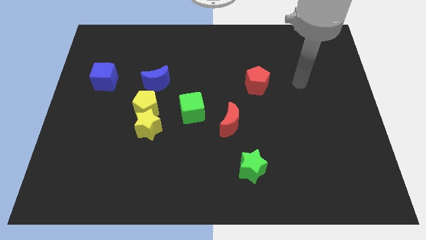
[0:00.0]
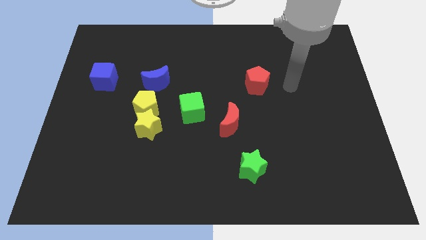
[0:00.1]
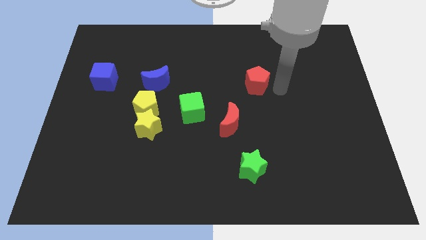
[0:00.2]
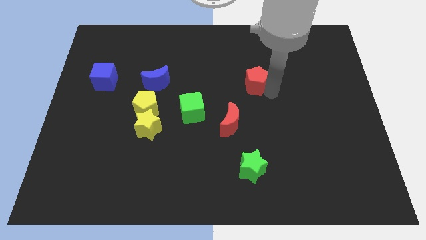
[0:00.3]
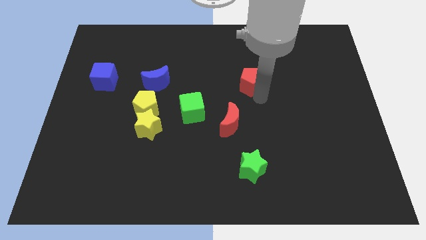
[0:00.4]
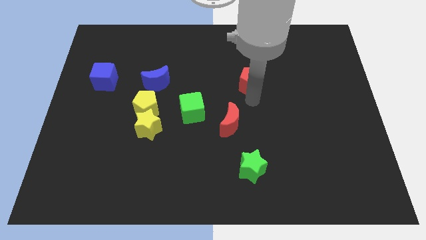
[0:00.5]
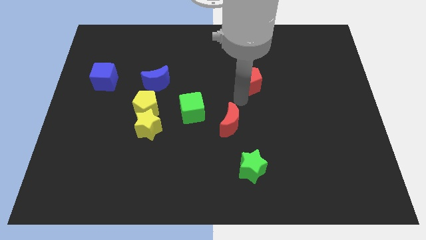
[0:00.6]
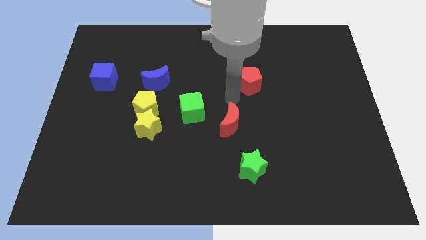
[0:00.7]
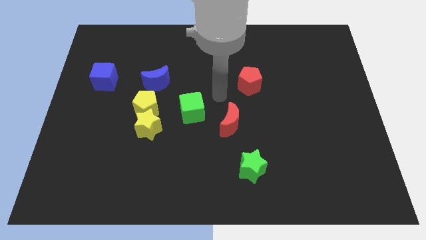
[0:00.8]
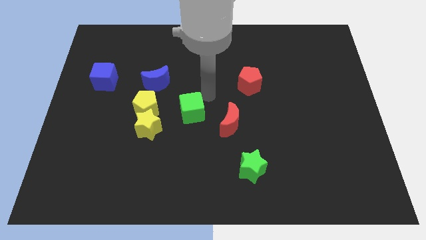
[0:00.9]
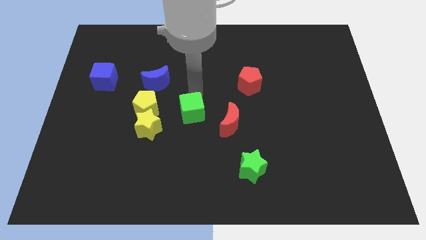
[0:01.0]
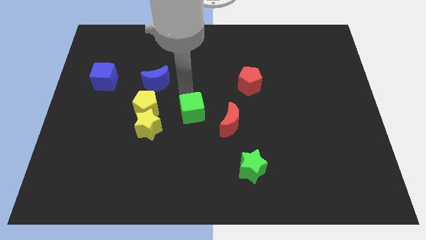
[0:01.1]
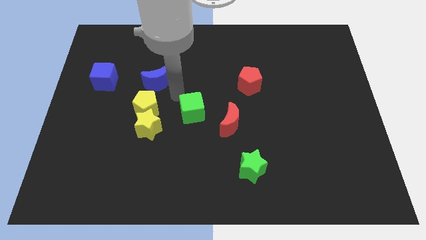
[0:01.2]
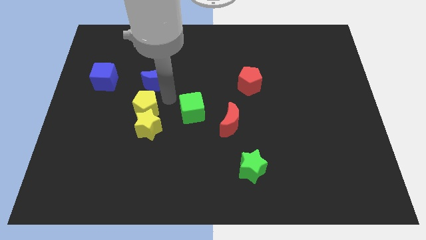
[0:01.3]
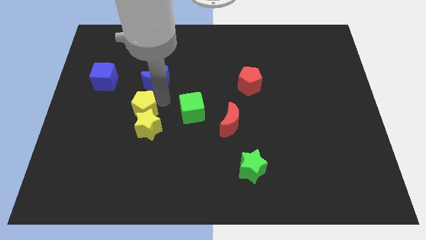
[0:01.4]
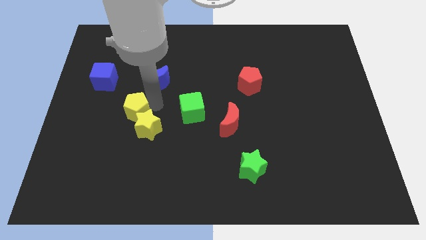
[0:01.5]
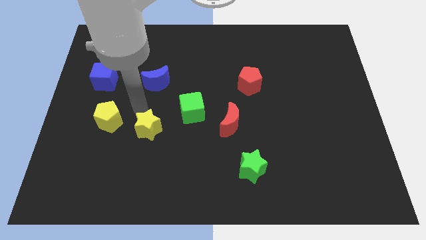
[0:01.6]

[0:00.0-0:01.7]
pull the yellow star apart from the yellow pentagon

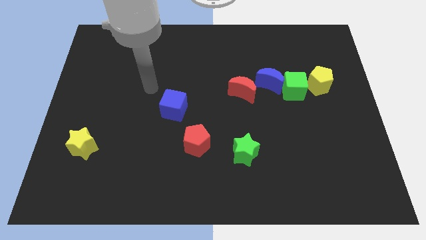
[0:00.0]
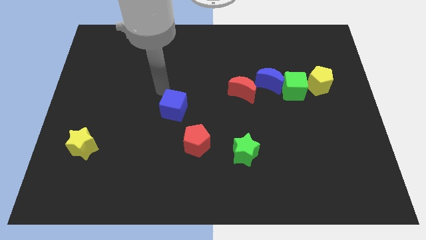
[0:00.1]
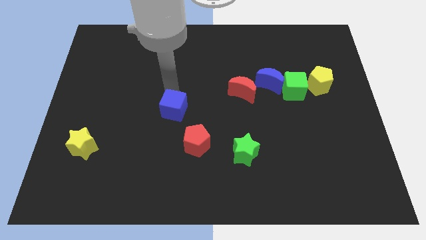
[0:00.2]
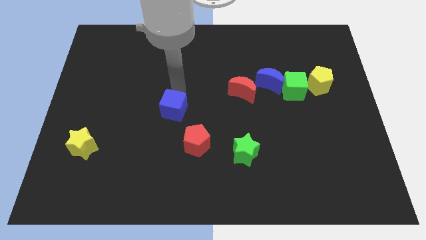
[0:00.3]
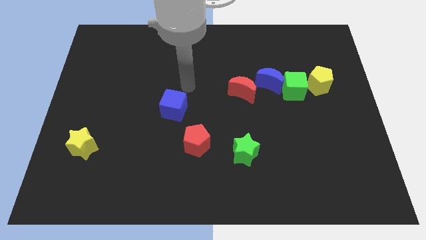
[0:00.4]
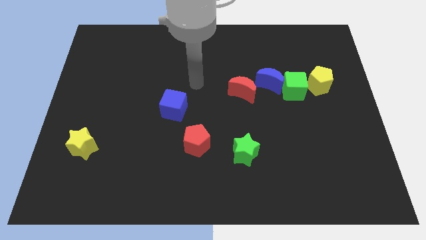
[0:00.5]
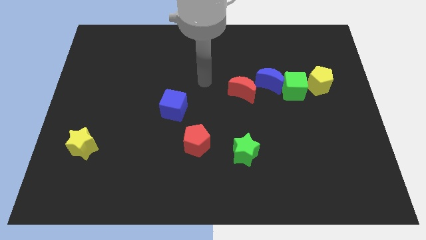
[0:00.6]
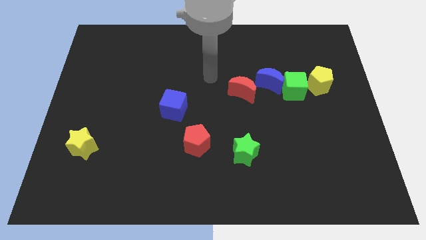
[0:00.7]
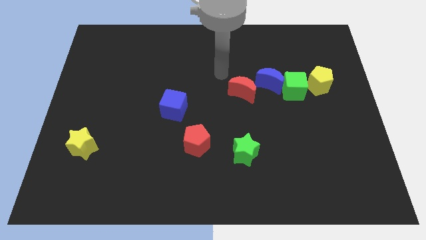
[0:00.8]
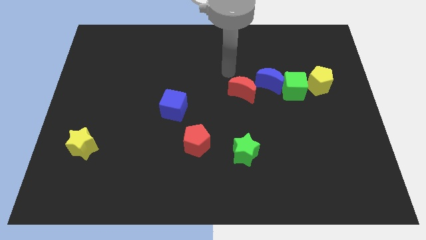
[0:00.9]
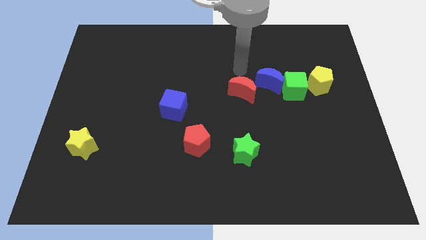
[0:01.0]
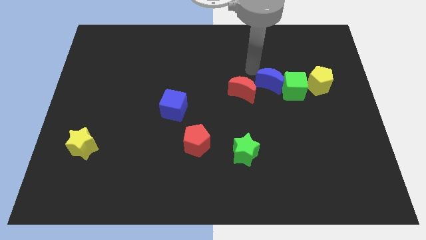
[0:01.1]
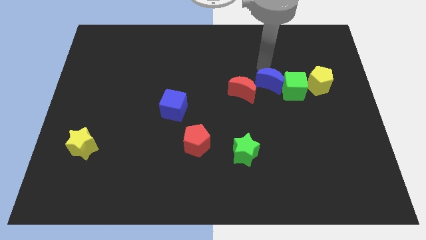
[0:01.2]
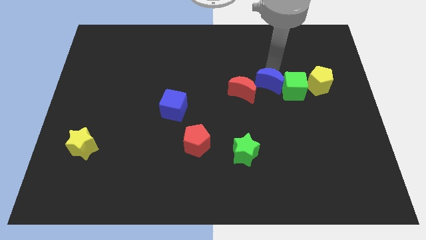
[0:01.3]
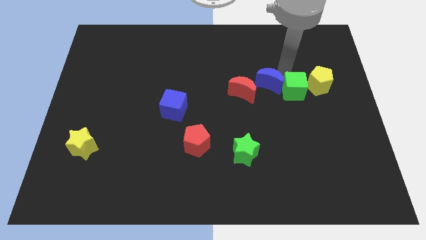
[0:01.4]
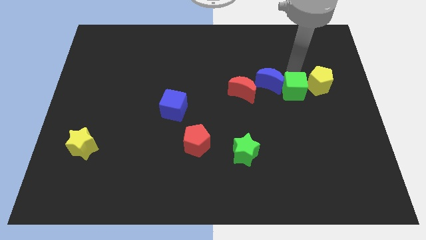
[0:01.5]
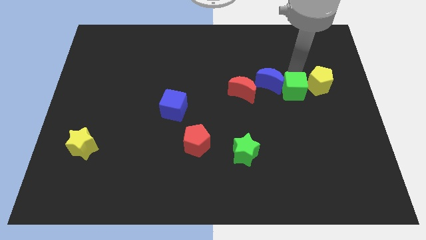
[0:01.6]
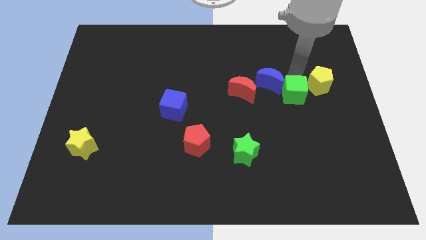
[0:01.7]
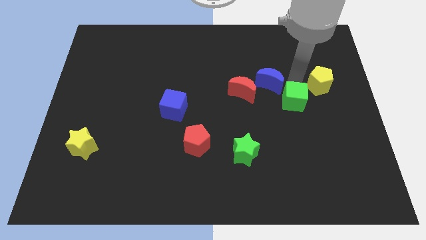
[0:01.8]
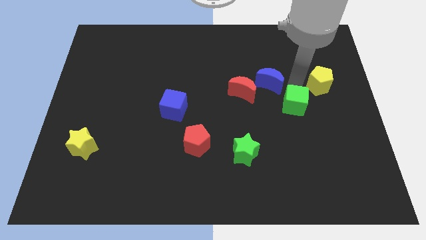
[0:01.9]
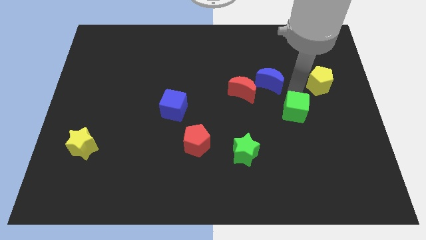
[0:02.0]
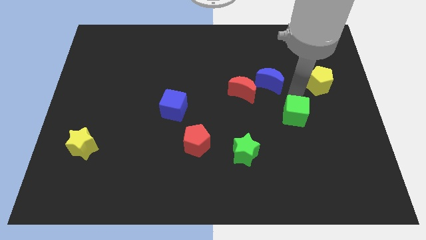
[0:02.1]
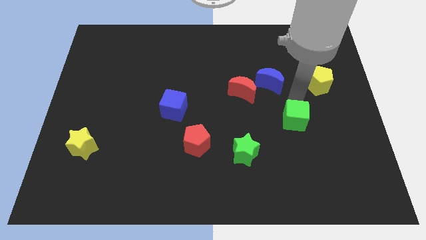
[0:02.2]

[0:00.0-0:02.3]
move the green cube away from the blue moon and yellow pentagon

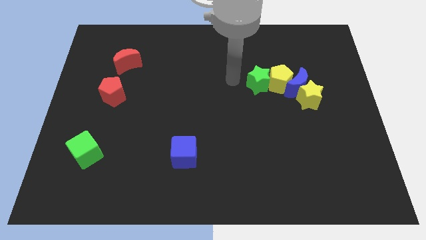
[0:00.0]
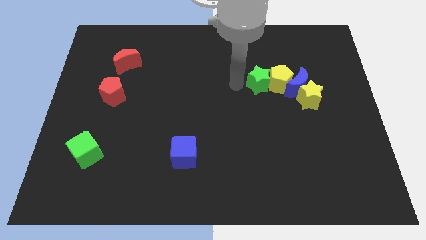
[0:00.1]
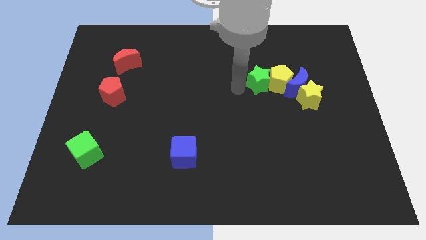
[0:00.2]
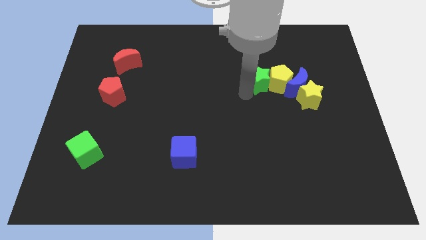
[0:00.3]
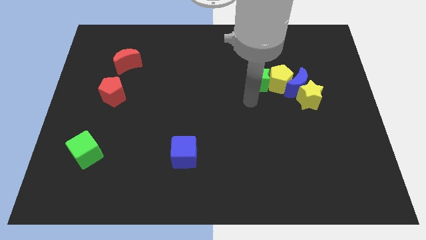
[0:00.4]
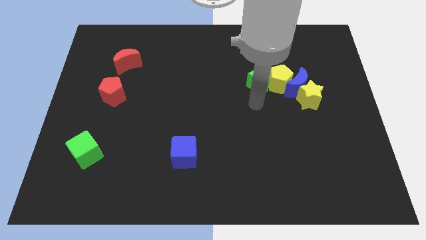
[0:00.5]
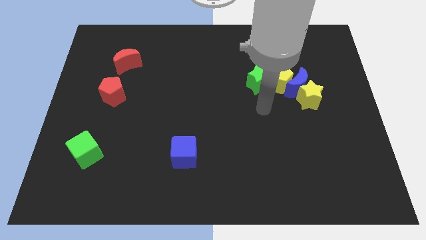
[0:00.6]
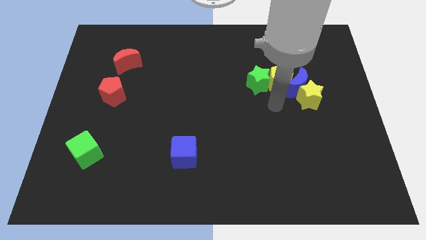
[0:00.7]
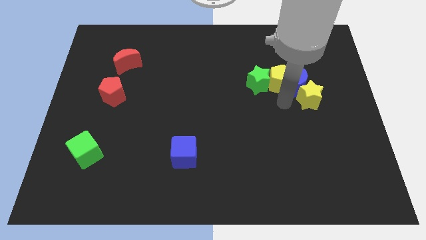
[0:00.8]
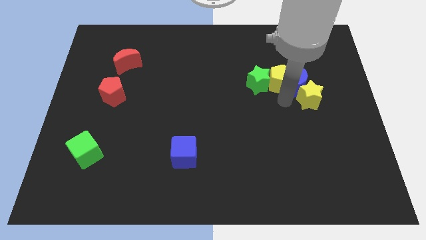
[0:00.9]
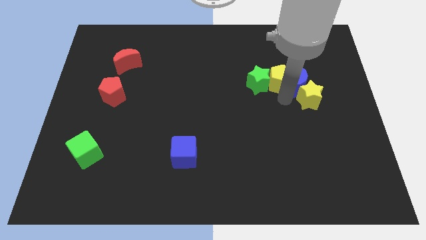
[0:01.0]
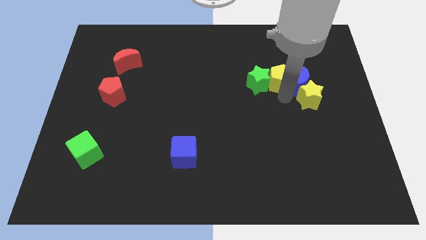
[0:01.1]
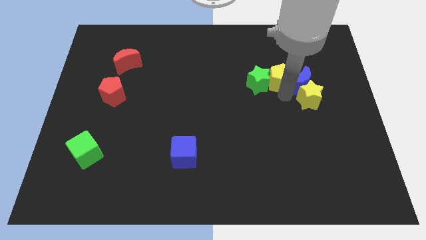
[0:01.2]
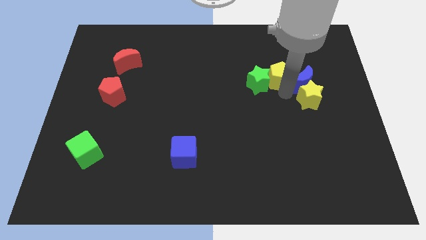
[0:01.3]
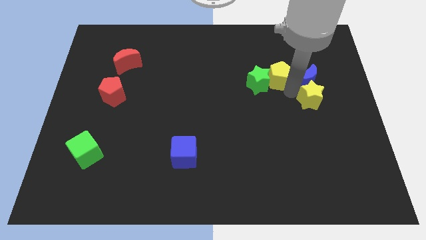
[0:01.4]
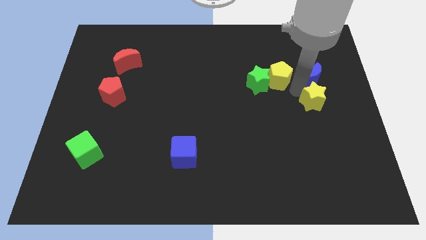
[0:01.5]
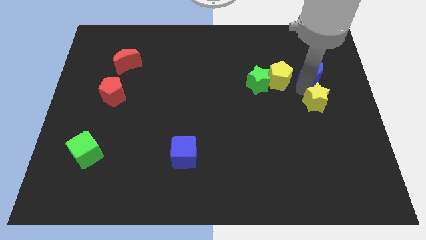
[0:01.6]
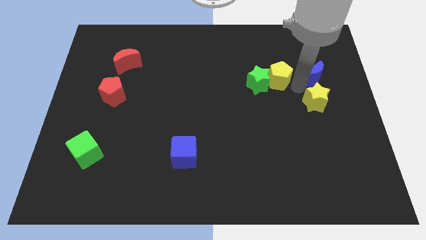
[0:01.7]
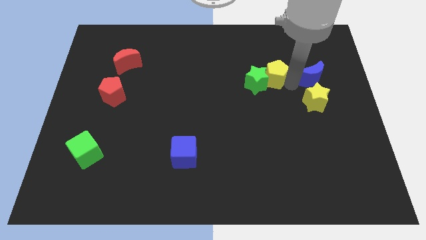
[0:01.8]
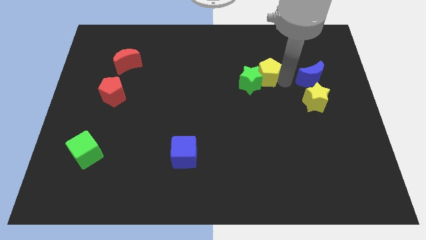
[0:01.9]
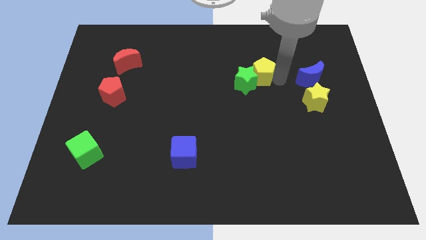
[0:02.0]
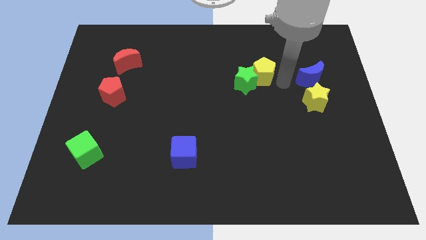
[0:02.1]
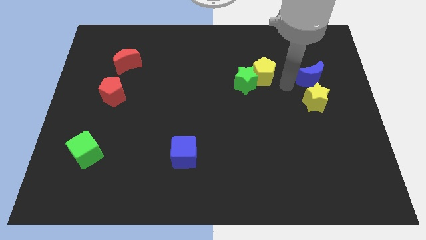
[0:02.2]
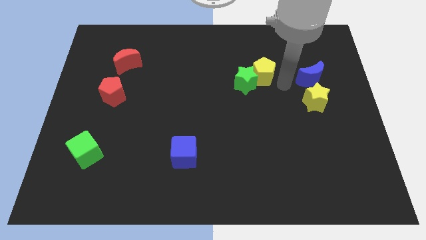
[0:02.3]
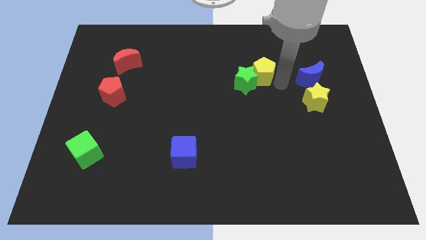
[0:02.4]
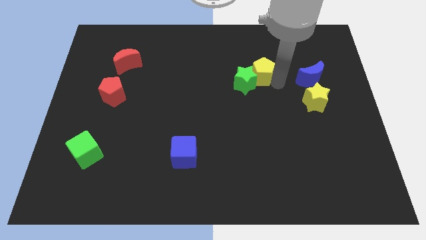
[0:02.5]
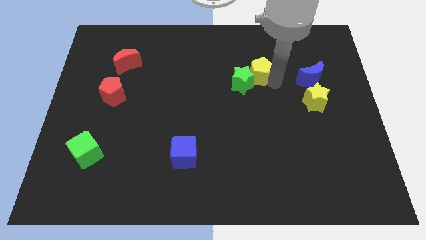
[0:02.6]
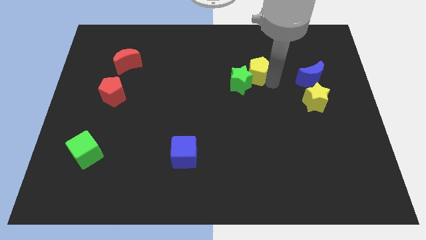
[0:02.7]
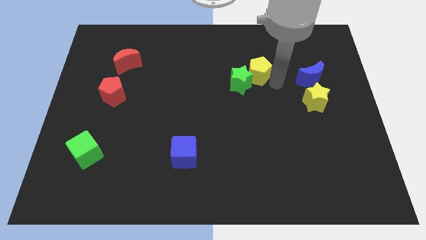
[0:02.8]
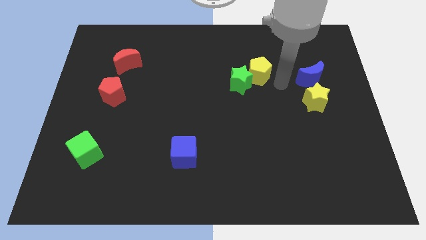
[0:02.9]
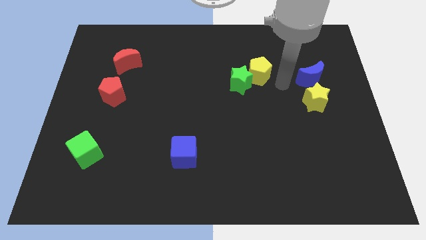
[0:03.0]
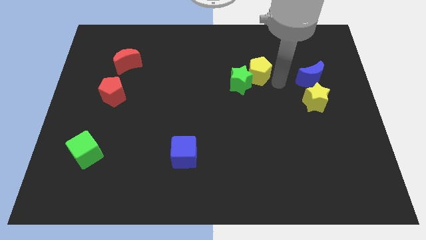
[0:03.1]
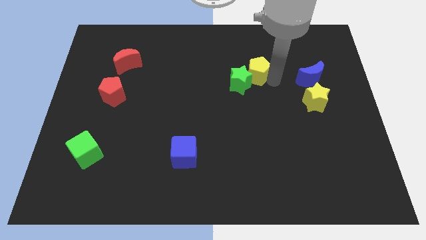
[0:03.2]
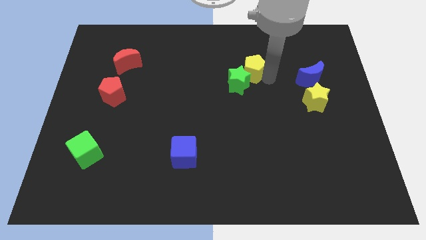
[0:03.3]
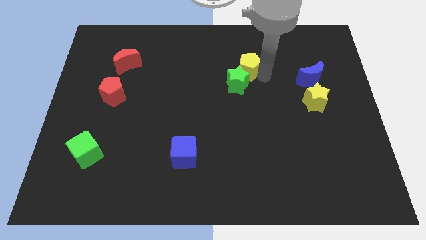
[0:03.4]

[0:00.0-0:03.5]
move the yellow pentagon away from the blue moon, green star, and yellow star

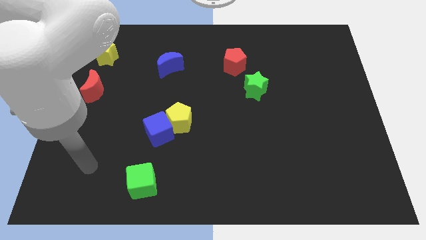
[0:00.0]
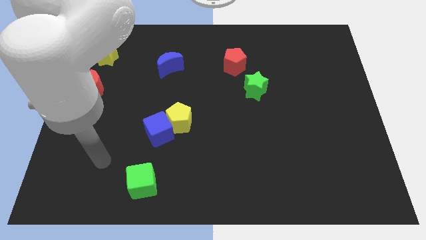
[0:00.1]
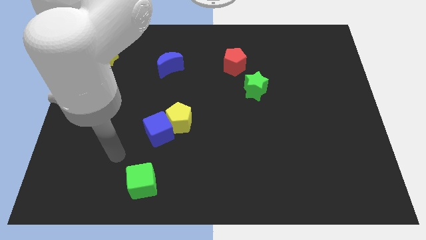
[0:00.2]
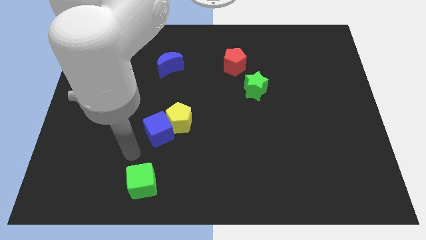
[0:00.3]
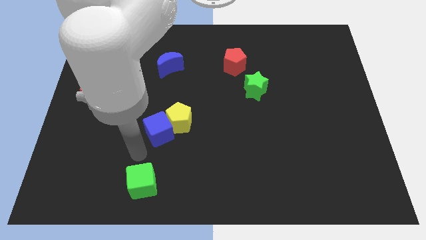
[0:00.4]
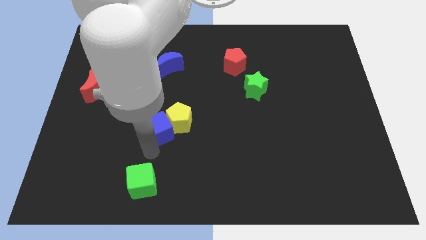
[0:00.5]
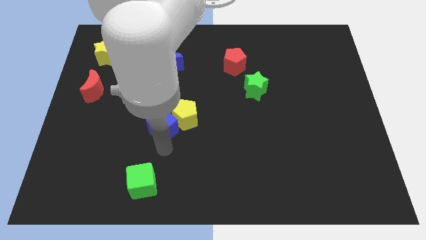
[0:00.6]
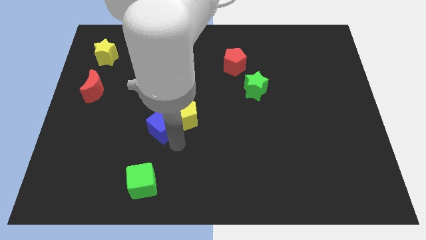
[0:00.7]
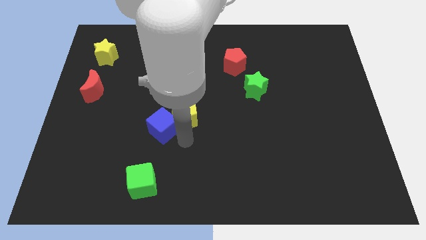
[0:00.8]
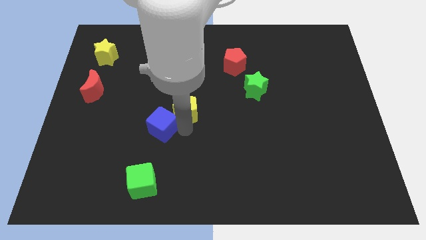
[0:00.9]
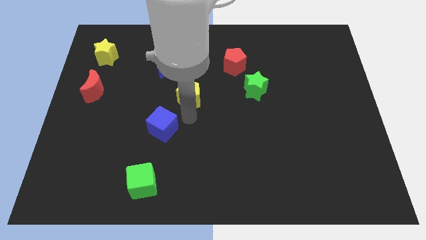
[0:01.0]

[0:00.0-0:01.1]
separate the blue cube from the yellow pentagon

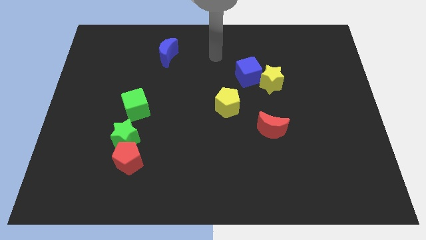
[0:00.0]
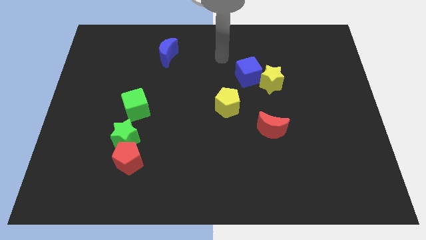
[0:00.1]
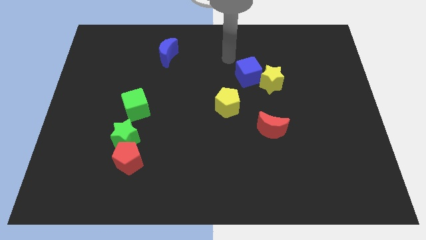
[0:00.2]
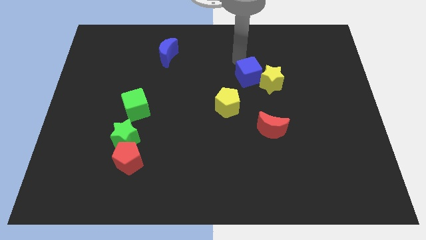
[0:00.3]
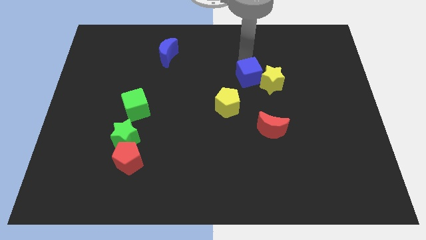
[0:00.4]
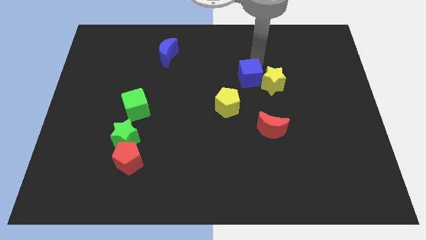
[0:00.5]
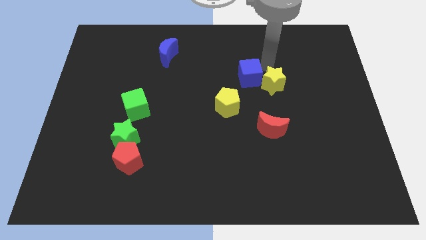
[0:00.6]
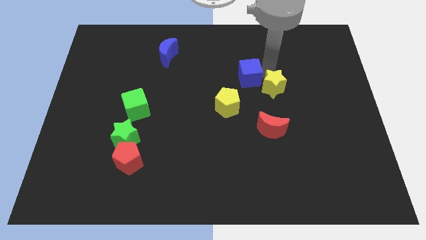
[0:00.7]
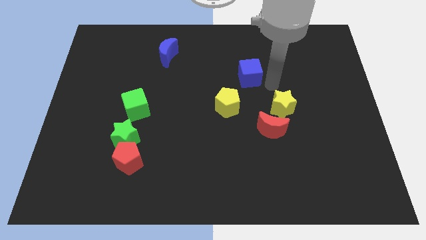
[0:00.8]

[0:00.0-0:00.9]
pull the blue cube apart from the yellow star
